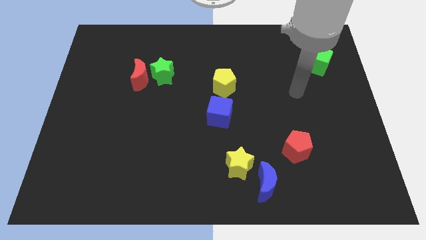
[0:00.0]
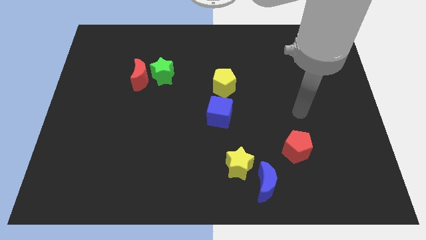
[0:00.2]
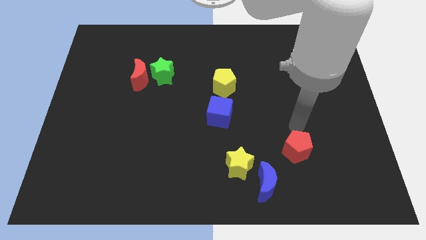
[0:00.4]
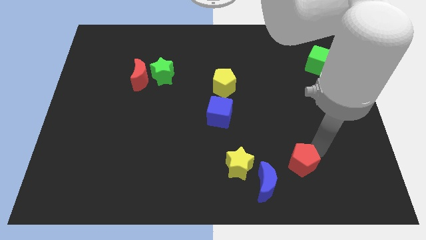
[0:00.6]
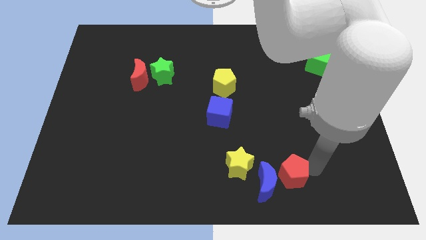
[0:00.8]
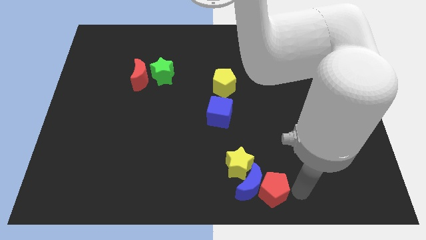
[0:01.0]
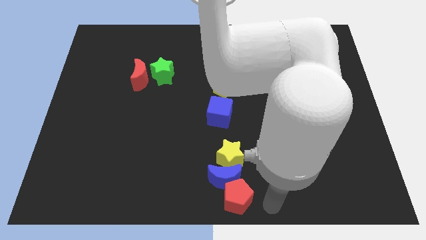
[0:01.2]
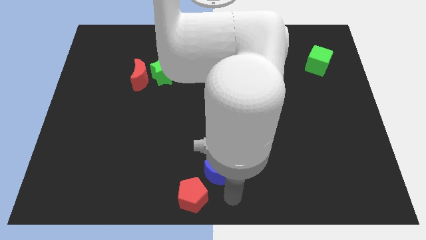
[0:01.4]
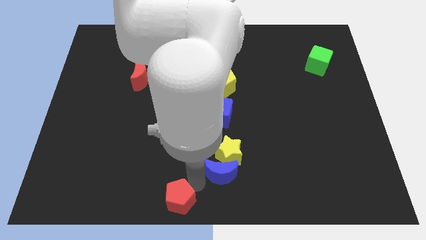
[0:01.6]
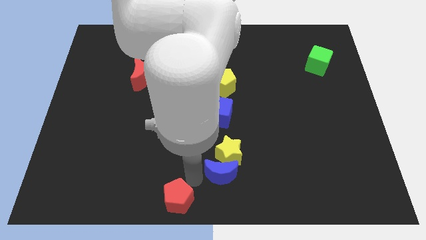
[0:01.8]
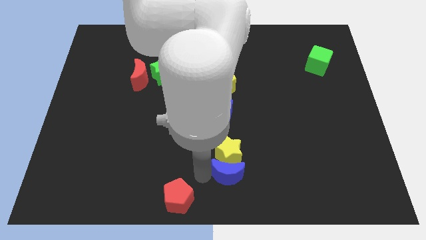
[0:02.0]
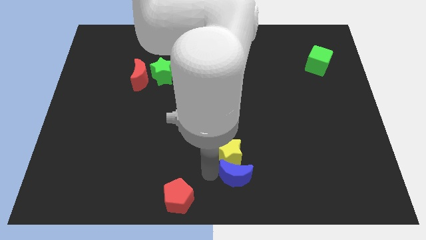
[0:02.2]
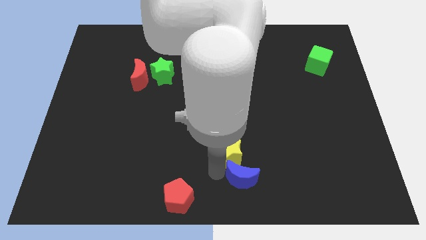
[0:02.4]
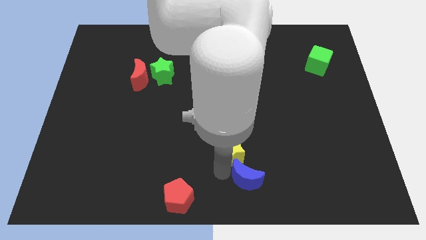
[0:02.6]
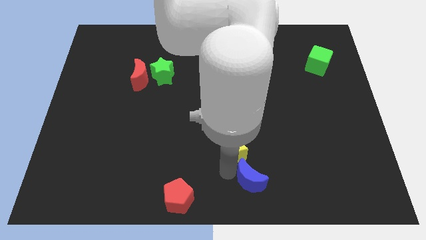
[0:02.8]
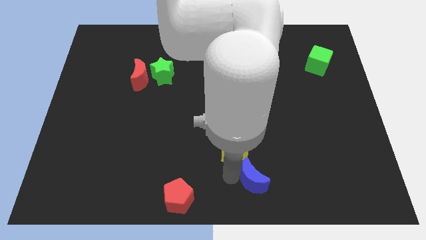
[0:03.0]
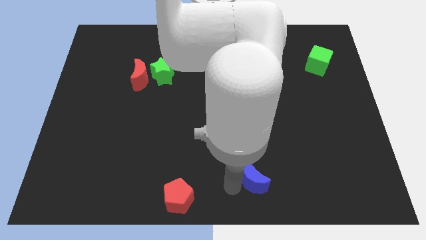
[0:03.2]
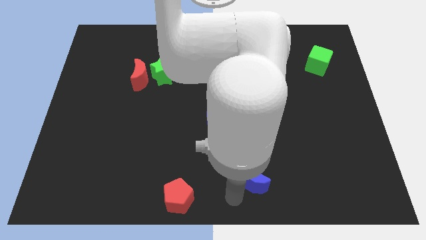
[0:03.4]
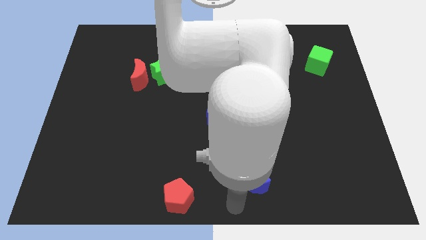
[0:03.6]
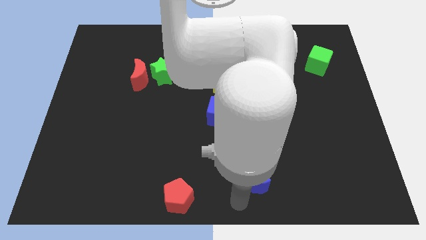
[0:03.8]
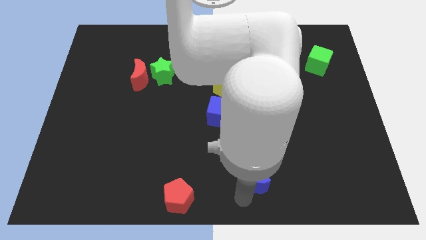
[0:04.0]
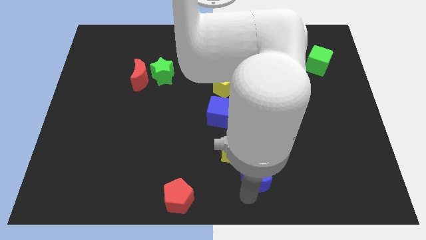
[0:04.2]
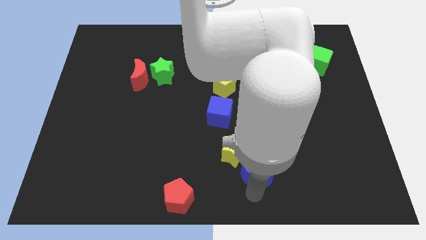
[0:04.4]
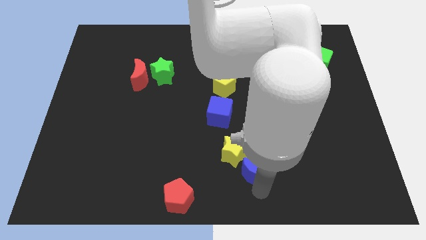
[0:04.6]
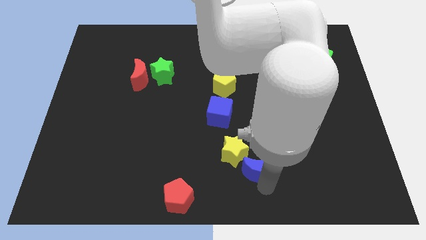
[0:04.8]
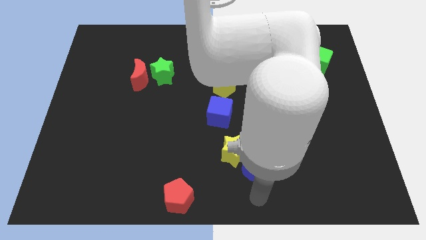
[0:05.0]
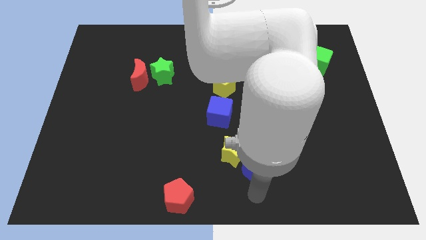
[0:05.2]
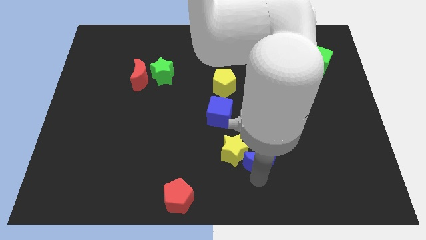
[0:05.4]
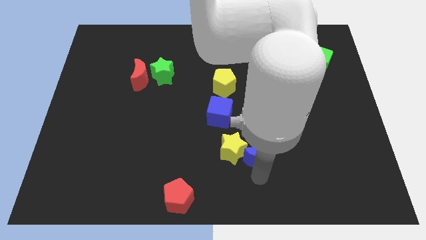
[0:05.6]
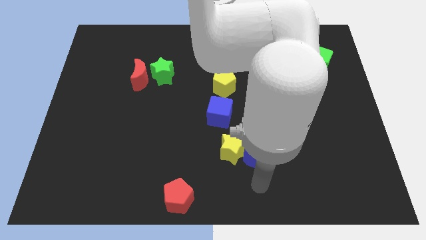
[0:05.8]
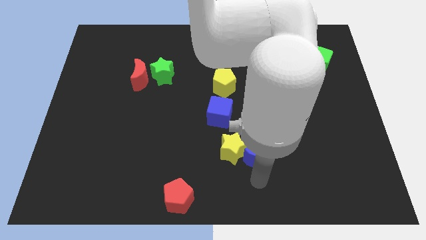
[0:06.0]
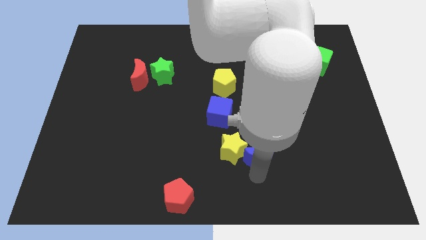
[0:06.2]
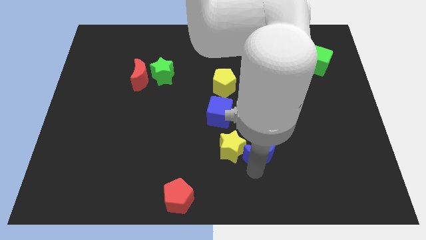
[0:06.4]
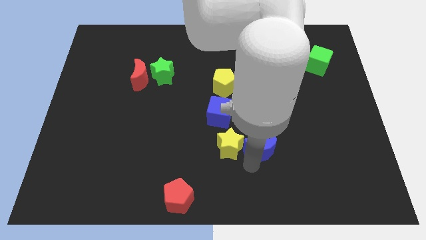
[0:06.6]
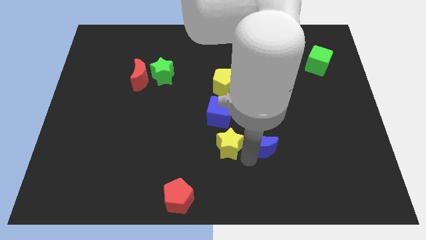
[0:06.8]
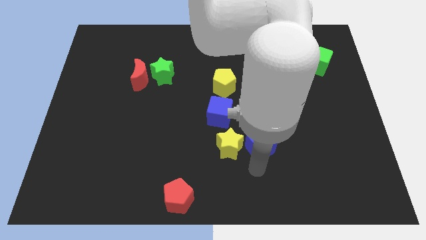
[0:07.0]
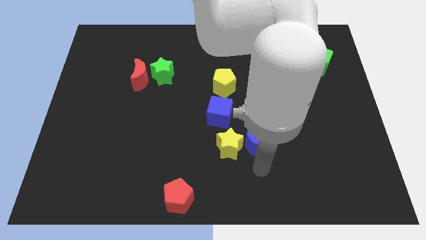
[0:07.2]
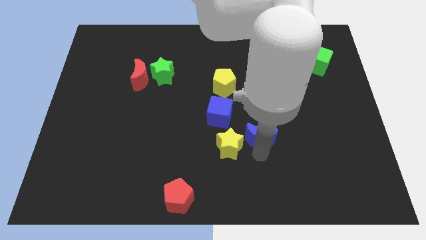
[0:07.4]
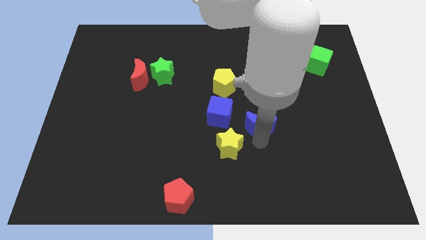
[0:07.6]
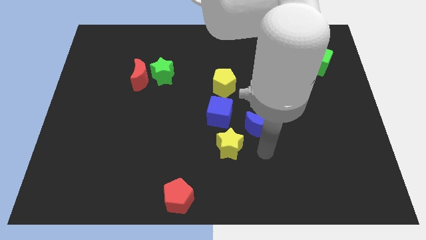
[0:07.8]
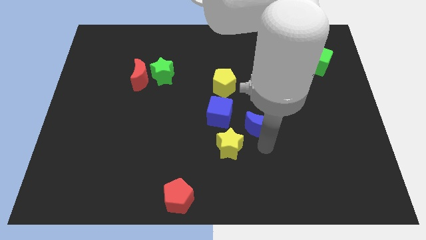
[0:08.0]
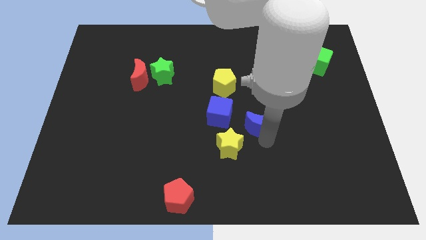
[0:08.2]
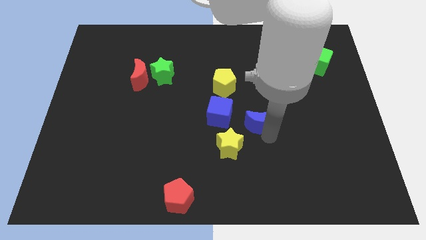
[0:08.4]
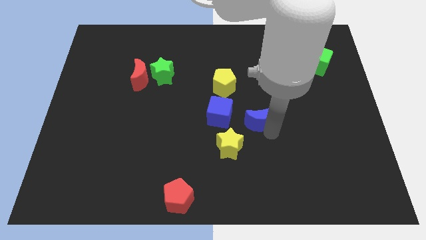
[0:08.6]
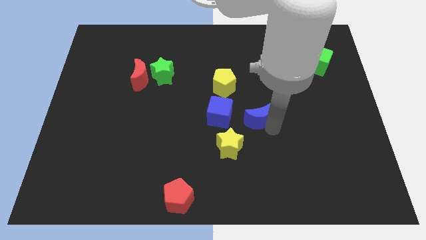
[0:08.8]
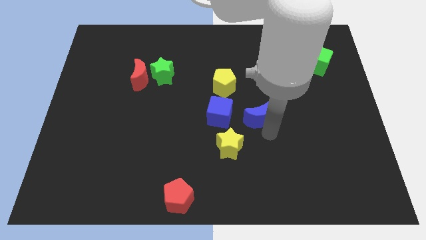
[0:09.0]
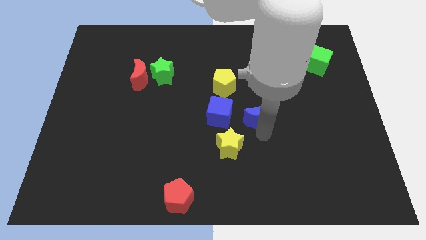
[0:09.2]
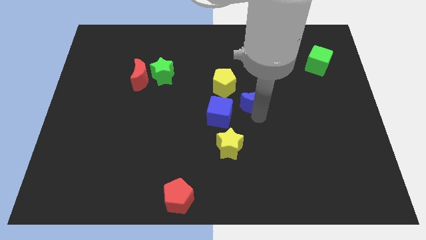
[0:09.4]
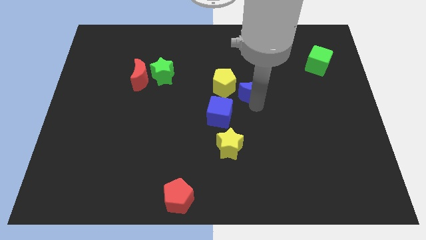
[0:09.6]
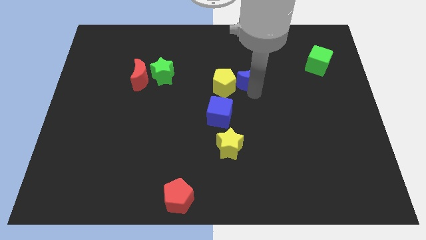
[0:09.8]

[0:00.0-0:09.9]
slide the blue moon diagonally up and to the right of the yellow pentagon

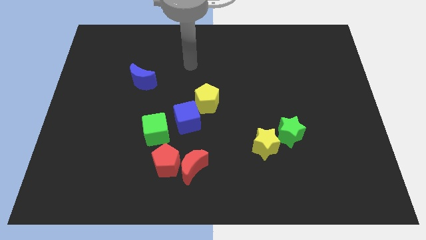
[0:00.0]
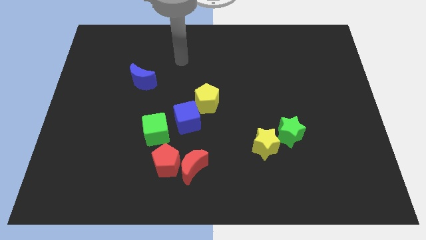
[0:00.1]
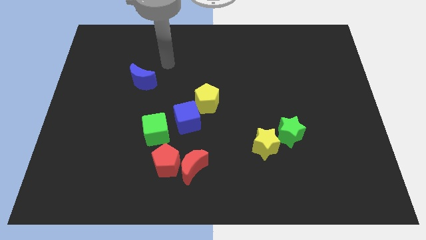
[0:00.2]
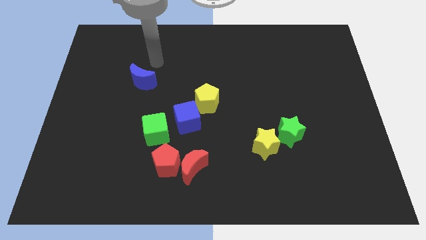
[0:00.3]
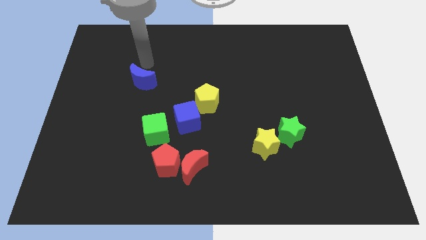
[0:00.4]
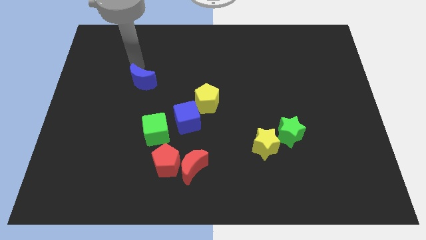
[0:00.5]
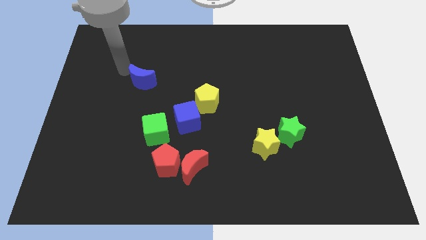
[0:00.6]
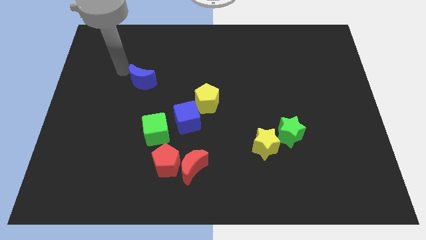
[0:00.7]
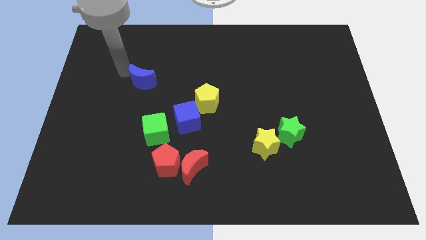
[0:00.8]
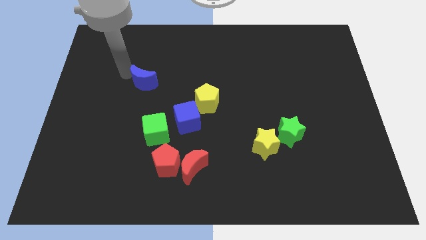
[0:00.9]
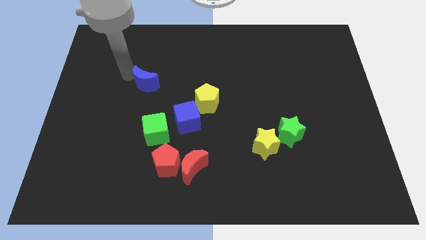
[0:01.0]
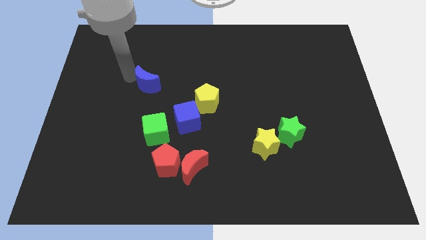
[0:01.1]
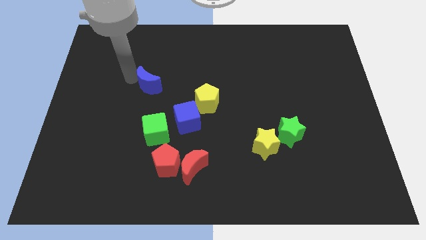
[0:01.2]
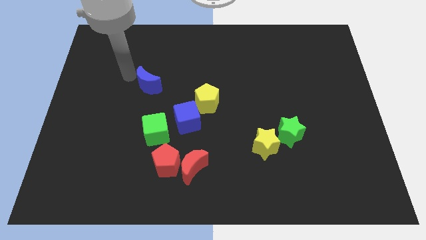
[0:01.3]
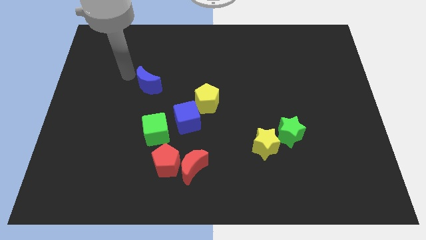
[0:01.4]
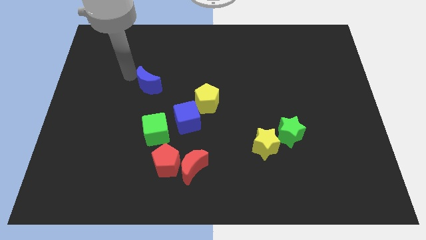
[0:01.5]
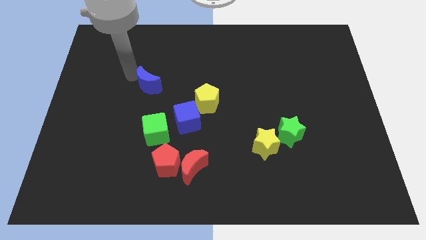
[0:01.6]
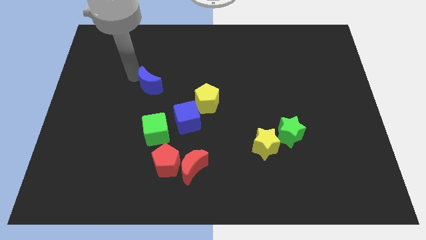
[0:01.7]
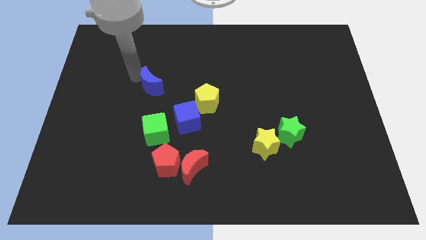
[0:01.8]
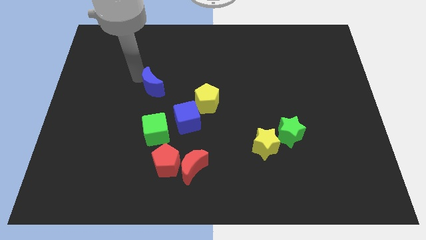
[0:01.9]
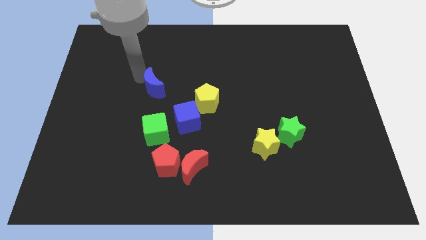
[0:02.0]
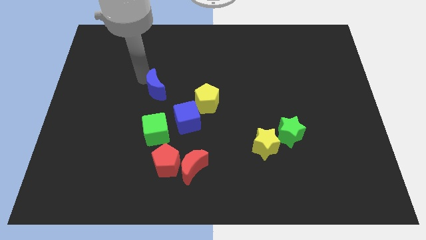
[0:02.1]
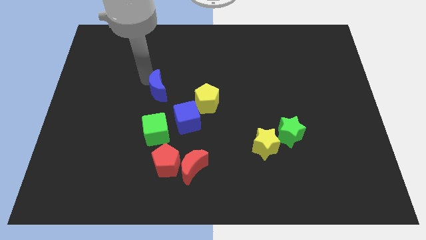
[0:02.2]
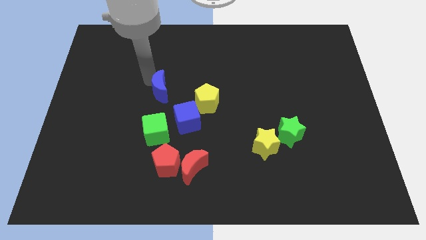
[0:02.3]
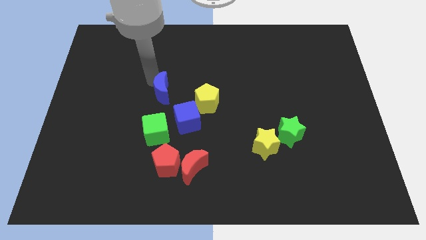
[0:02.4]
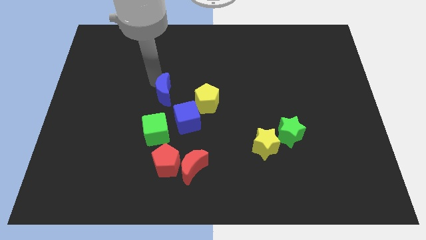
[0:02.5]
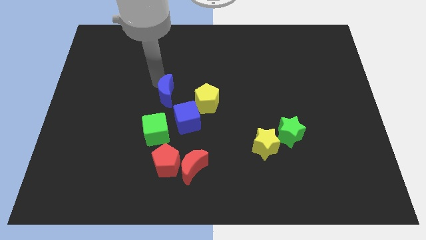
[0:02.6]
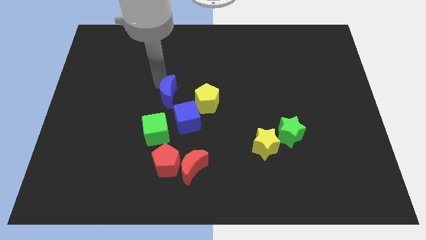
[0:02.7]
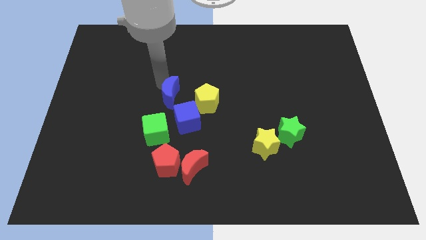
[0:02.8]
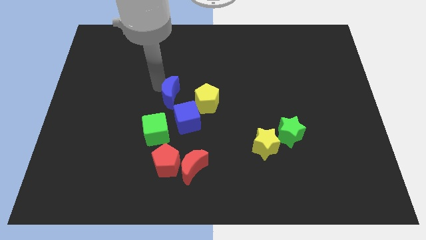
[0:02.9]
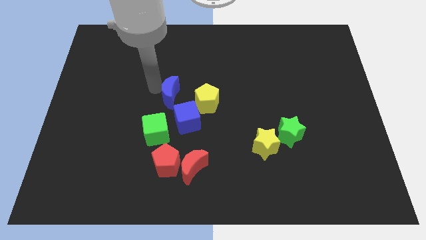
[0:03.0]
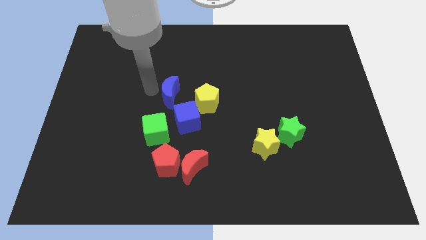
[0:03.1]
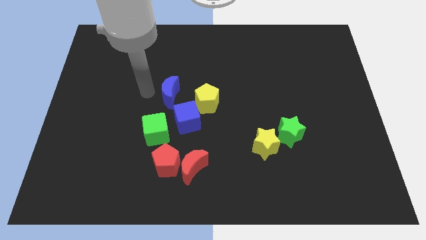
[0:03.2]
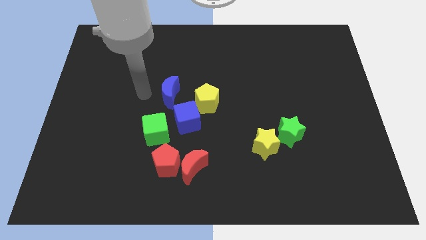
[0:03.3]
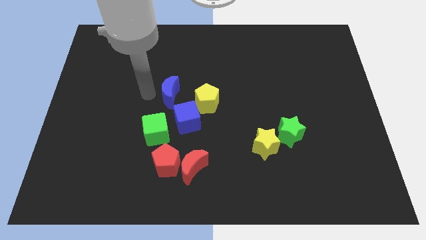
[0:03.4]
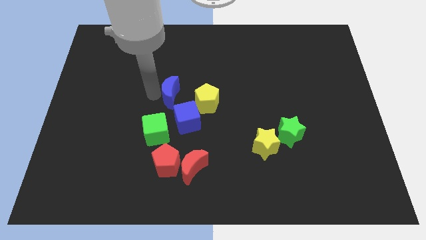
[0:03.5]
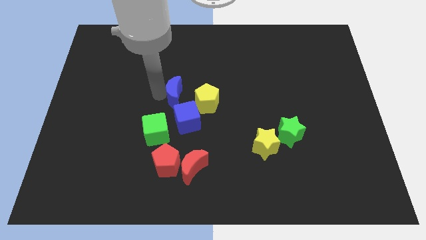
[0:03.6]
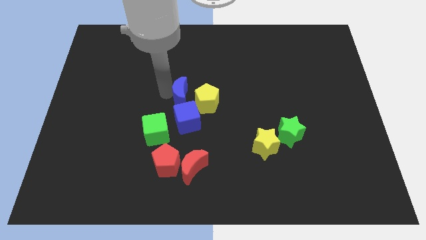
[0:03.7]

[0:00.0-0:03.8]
slide the blue moon to the top right of the green cube
